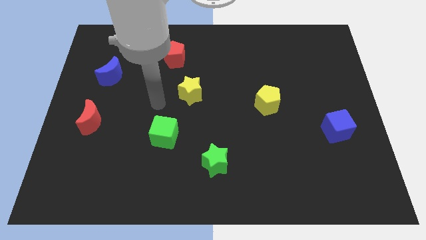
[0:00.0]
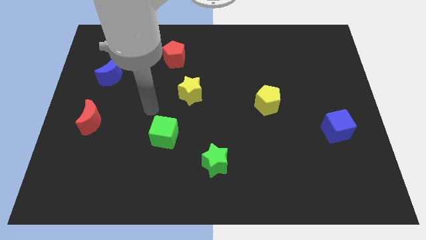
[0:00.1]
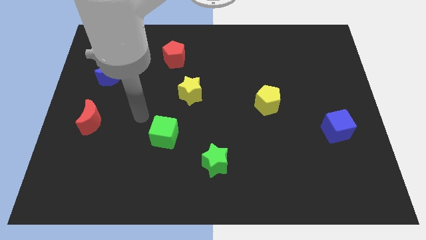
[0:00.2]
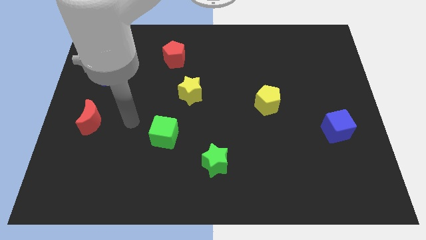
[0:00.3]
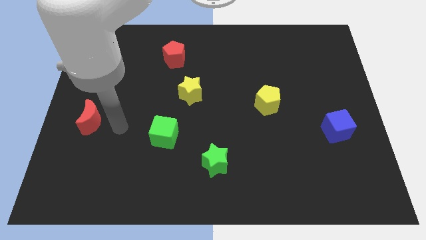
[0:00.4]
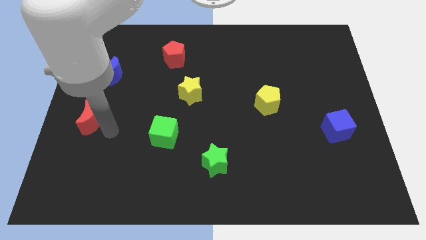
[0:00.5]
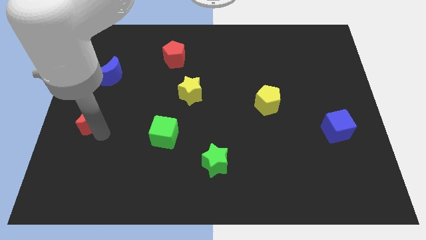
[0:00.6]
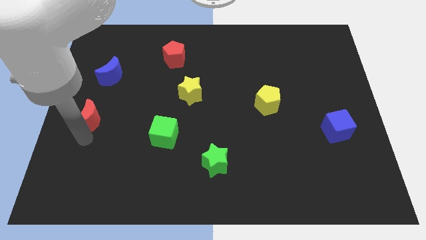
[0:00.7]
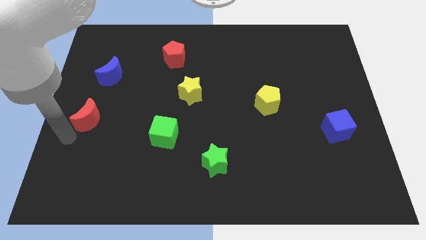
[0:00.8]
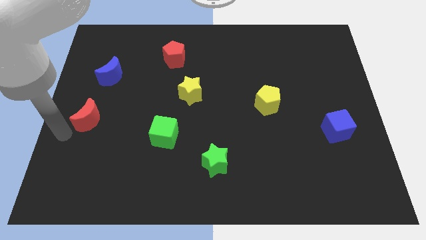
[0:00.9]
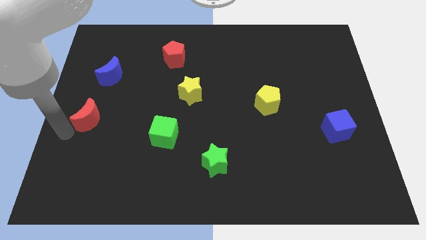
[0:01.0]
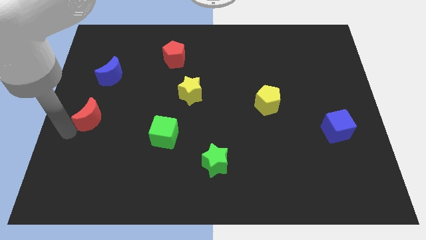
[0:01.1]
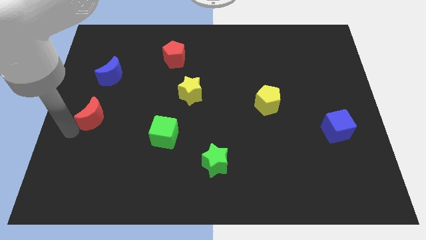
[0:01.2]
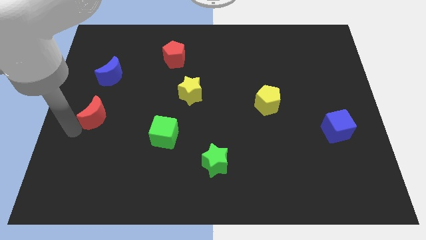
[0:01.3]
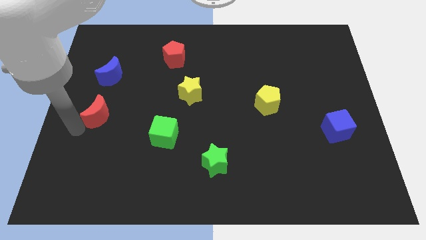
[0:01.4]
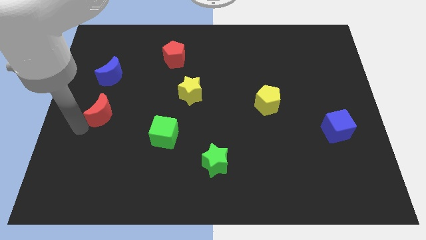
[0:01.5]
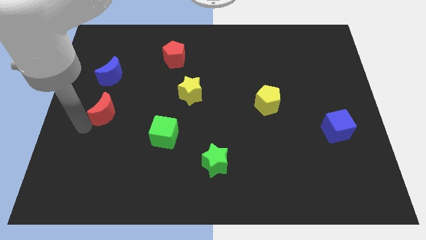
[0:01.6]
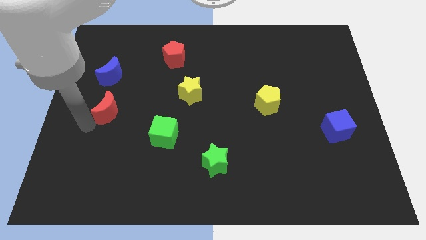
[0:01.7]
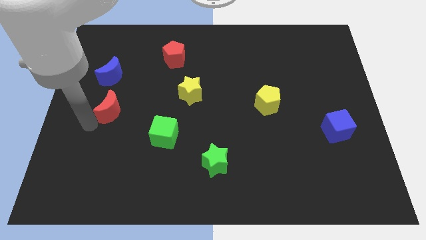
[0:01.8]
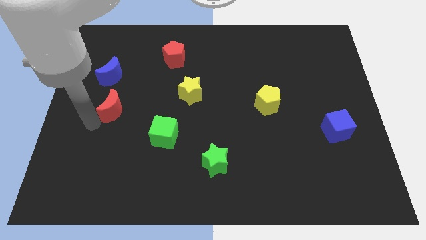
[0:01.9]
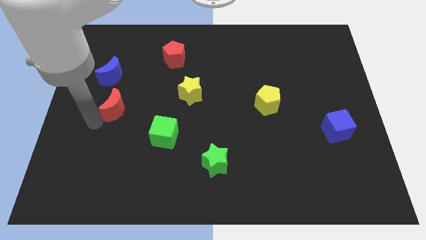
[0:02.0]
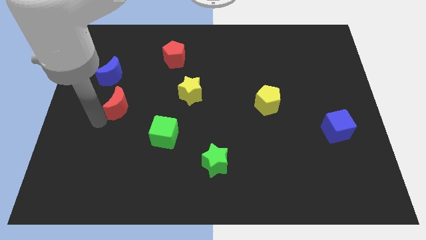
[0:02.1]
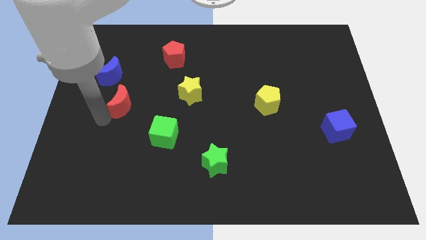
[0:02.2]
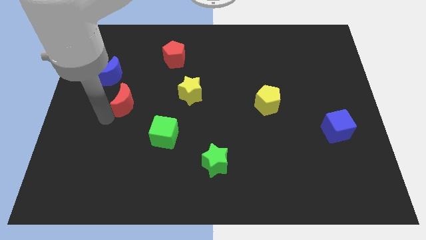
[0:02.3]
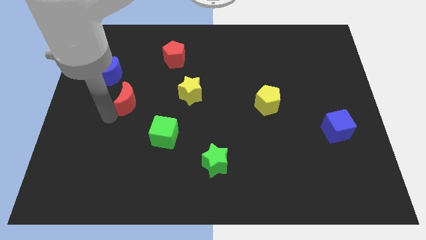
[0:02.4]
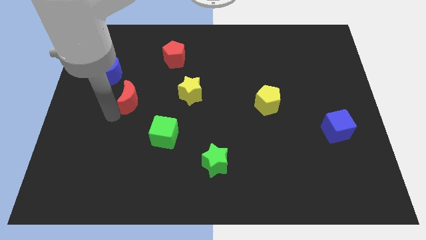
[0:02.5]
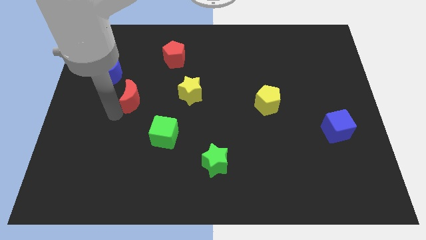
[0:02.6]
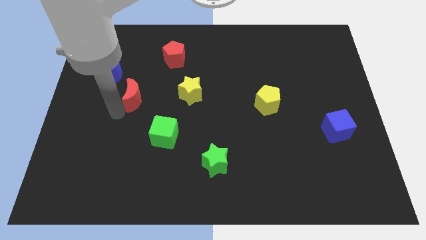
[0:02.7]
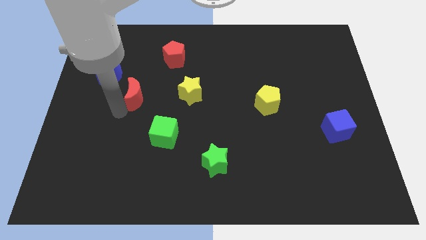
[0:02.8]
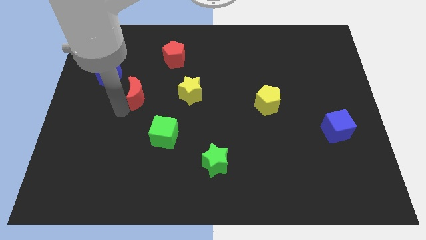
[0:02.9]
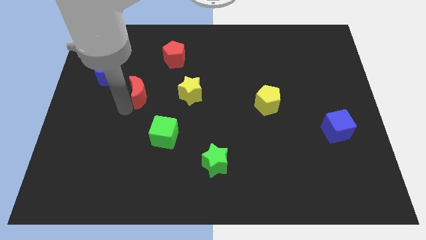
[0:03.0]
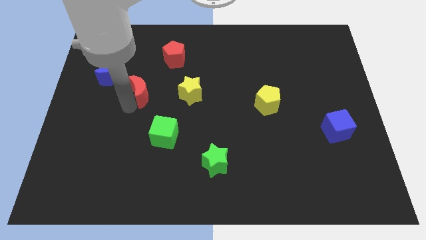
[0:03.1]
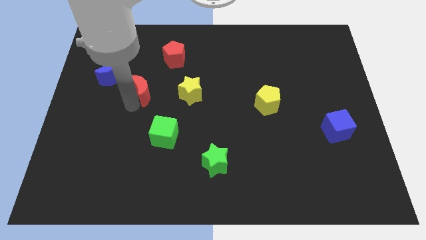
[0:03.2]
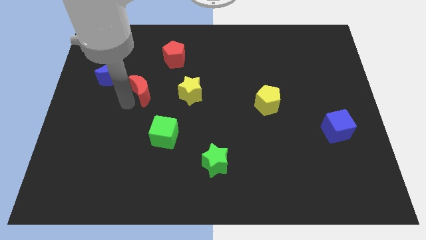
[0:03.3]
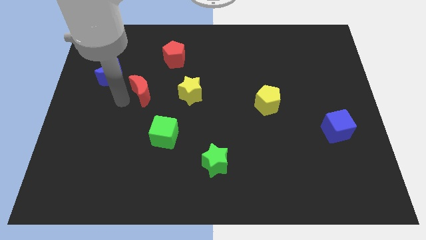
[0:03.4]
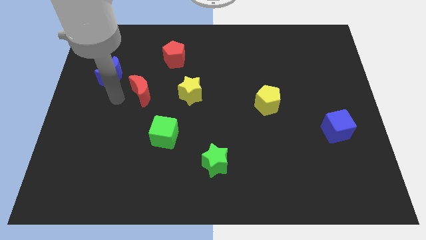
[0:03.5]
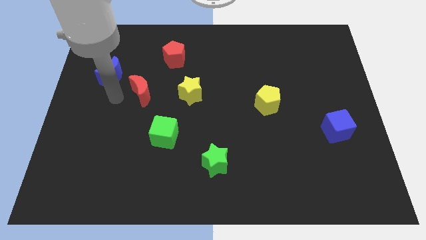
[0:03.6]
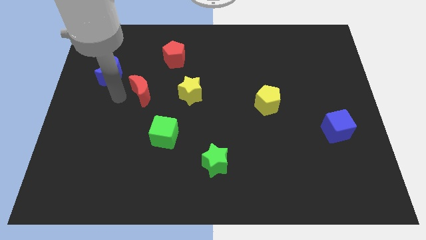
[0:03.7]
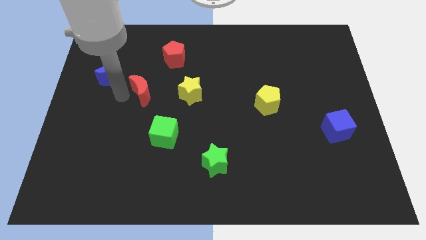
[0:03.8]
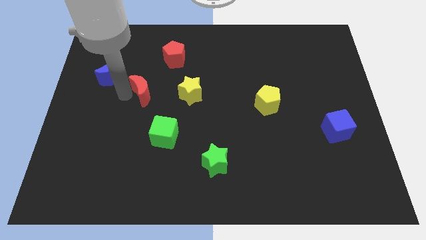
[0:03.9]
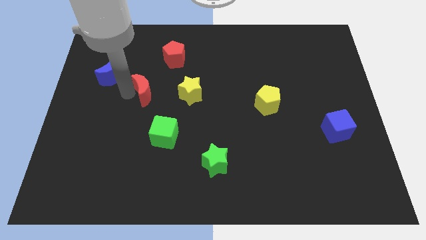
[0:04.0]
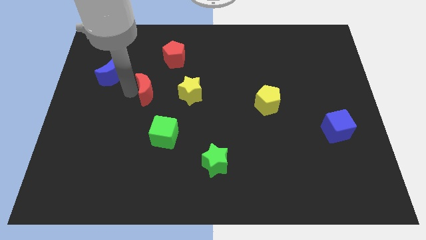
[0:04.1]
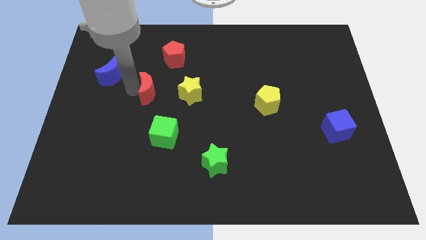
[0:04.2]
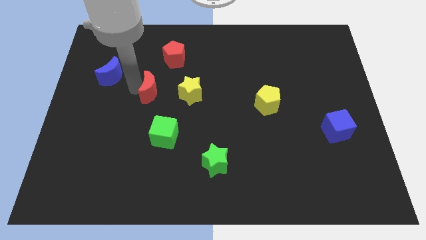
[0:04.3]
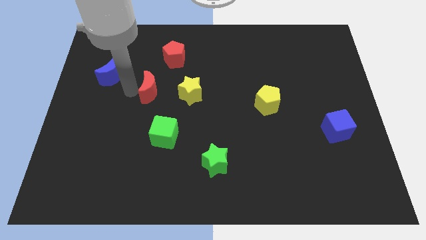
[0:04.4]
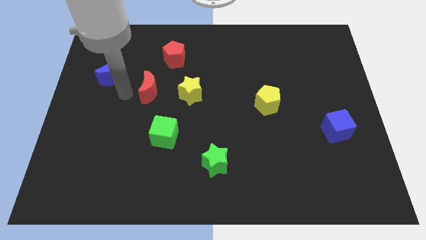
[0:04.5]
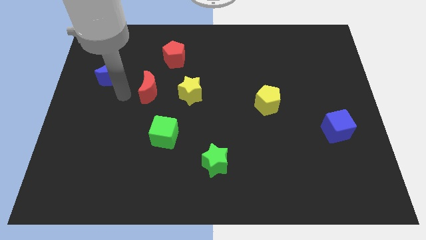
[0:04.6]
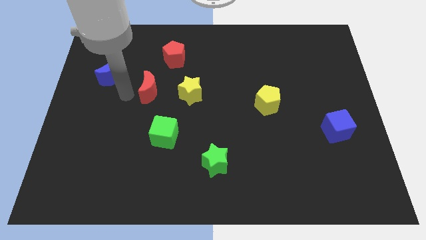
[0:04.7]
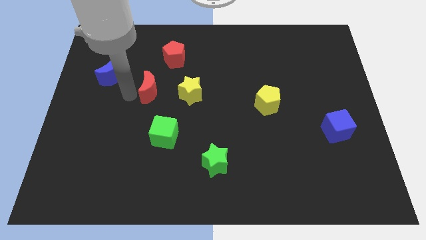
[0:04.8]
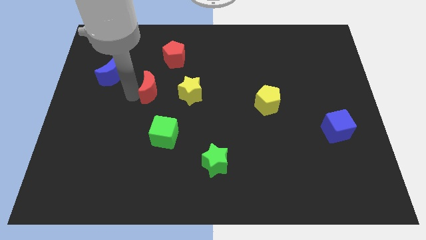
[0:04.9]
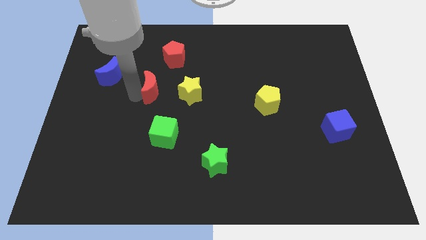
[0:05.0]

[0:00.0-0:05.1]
push the red moon to the bottom of the red pentagon

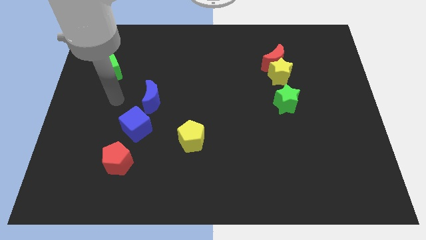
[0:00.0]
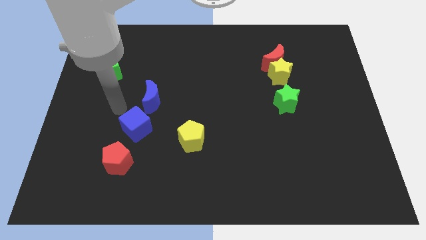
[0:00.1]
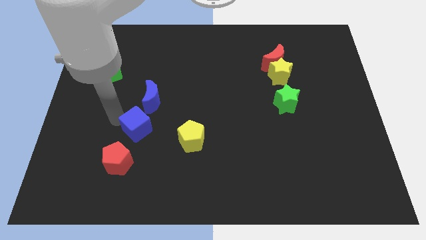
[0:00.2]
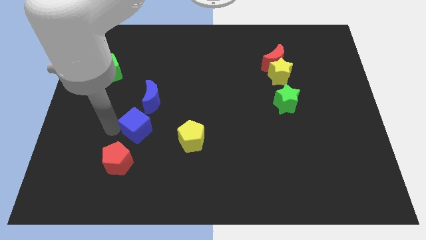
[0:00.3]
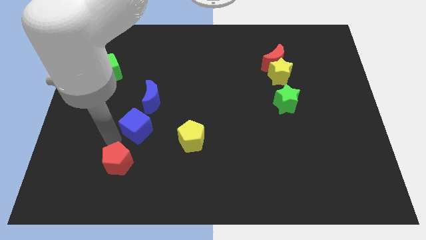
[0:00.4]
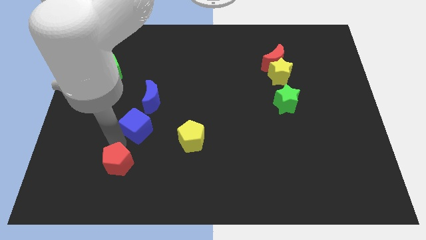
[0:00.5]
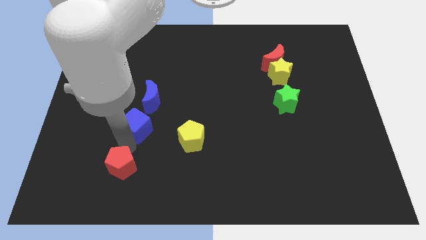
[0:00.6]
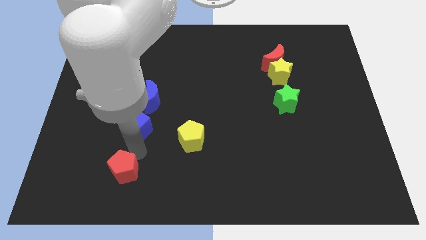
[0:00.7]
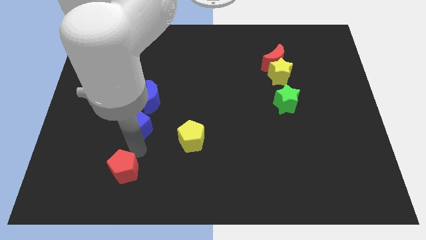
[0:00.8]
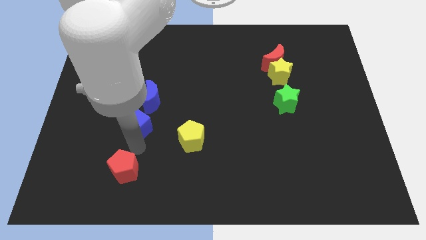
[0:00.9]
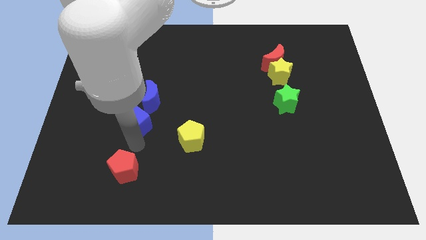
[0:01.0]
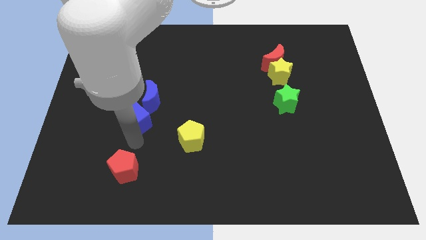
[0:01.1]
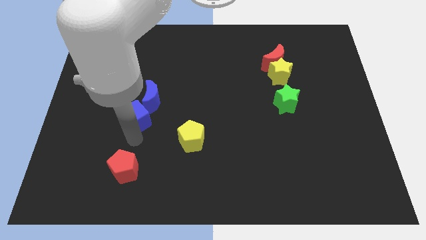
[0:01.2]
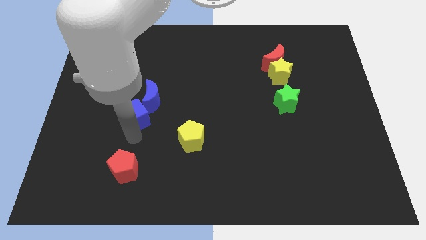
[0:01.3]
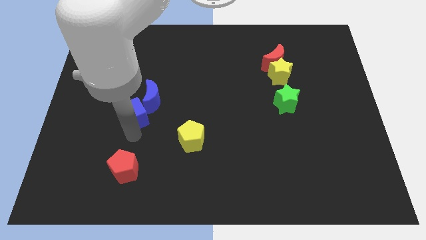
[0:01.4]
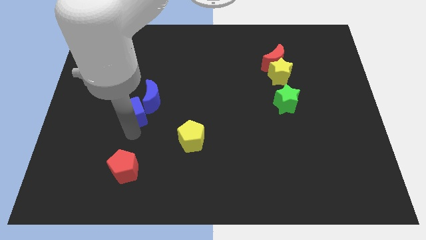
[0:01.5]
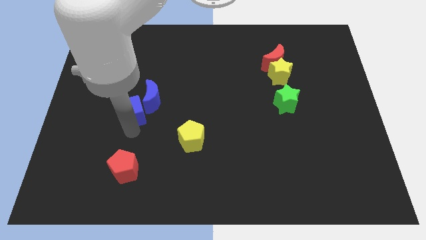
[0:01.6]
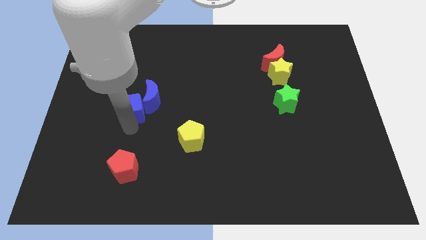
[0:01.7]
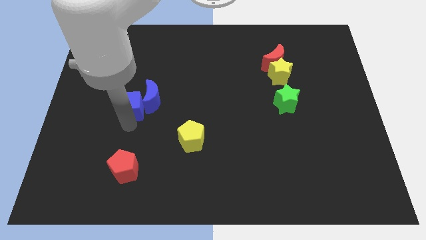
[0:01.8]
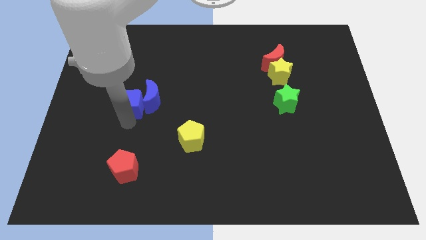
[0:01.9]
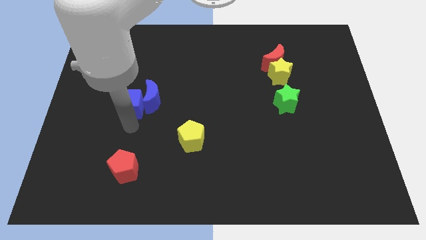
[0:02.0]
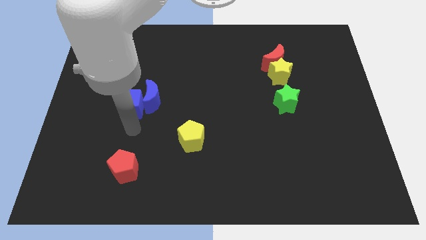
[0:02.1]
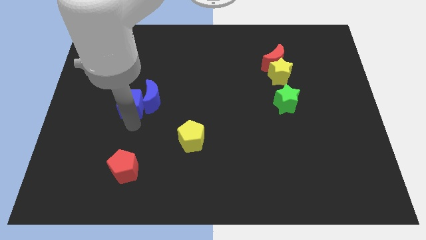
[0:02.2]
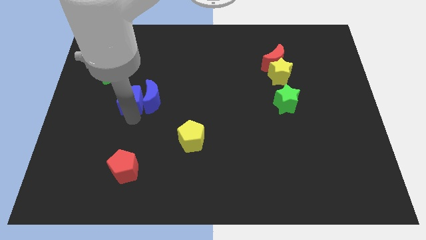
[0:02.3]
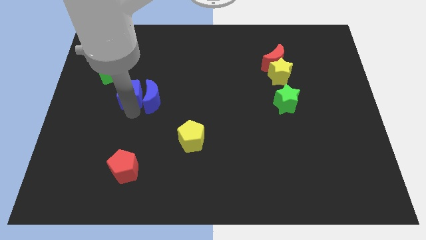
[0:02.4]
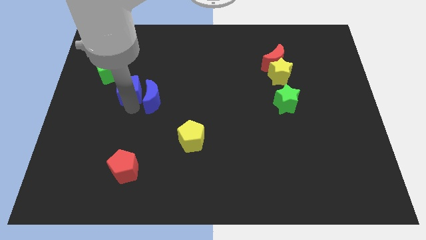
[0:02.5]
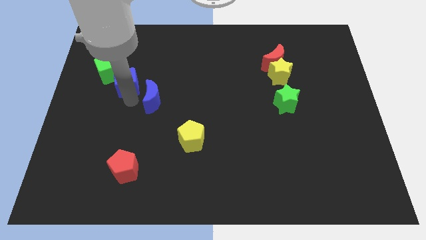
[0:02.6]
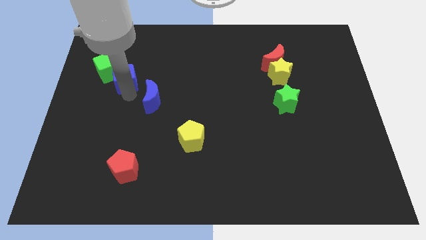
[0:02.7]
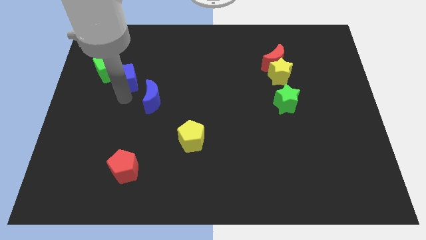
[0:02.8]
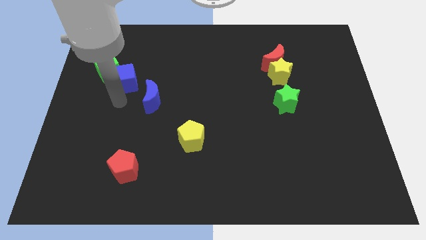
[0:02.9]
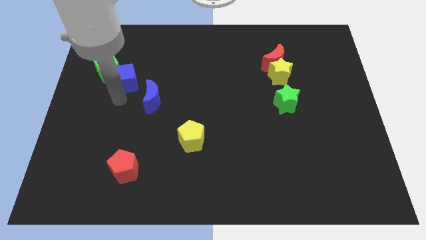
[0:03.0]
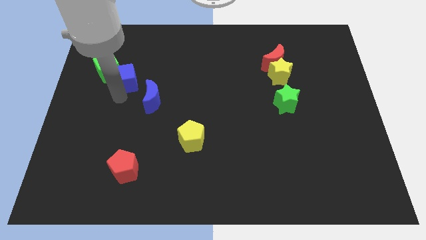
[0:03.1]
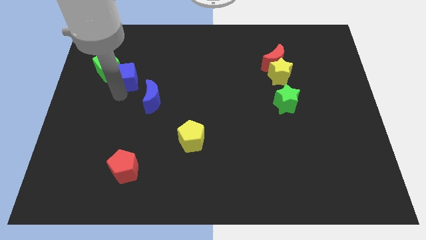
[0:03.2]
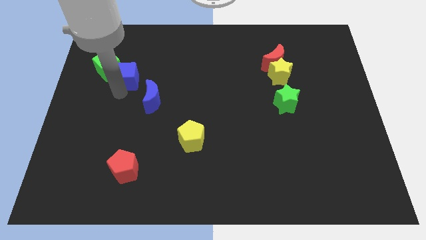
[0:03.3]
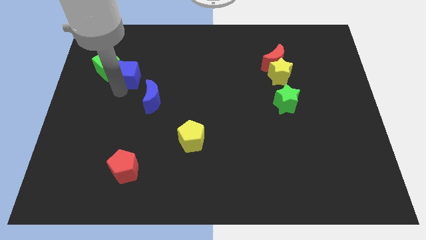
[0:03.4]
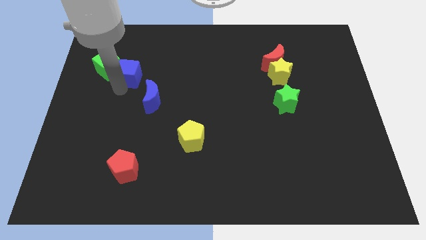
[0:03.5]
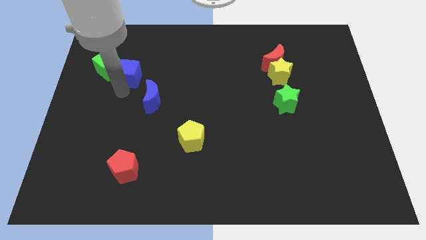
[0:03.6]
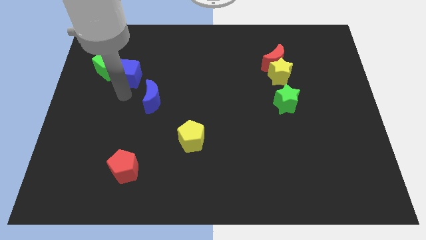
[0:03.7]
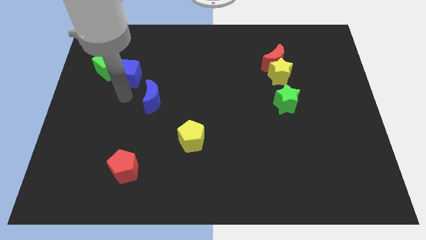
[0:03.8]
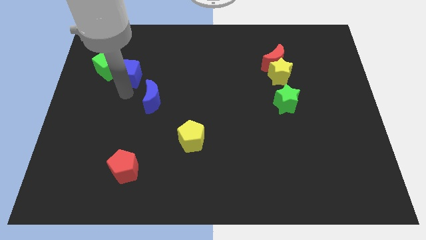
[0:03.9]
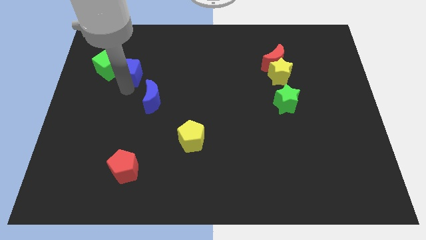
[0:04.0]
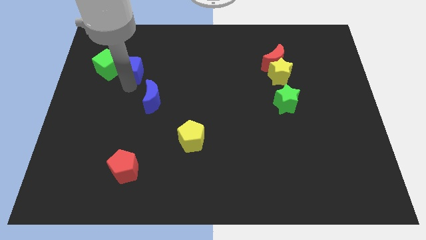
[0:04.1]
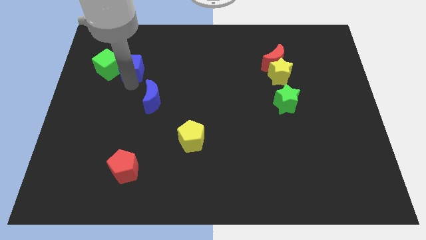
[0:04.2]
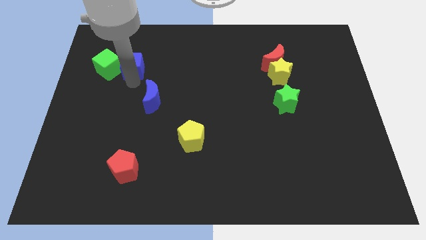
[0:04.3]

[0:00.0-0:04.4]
move the blue cube to the top right of the green cube
